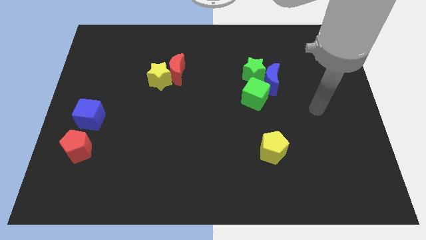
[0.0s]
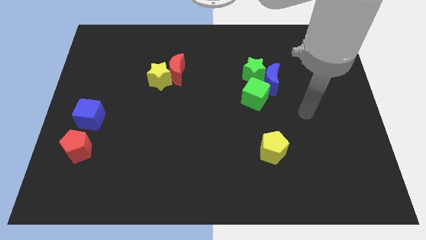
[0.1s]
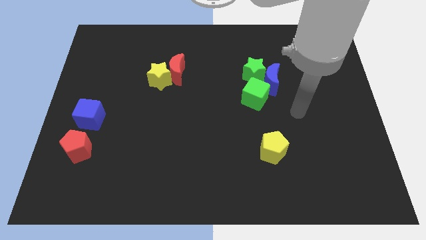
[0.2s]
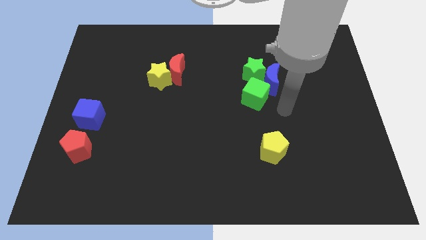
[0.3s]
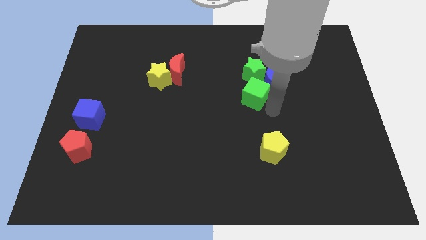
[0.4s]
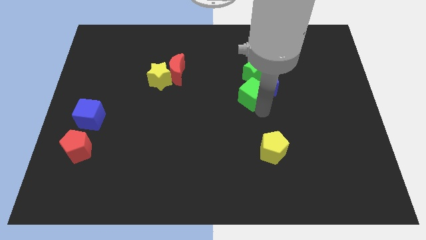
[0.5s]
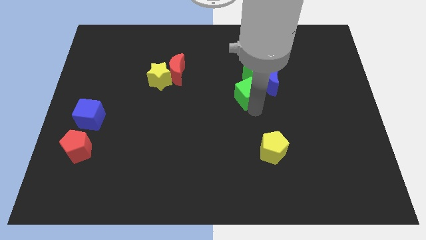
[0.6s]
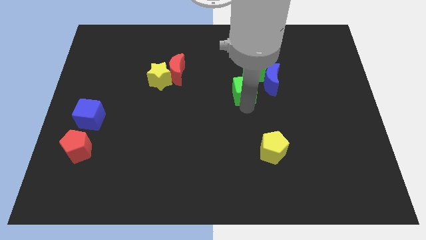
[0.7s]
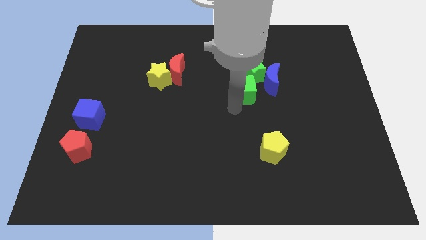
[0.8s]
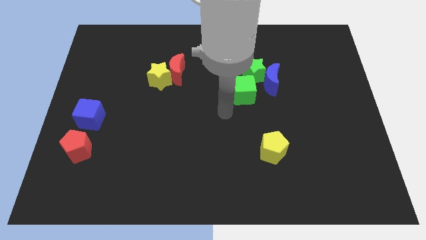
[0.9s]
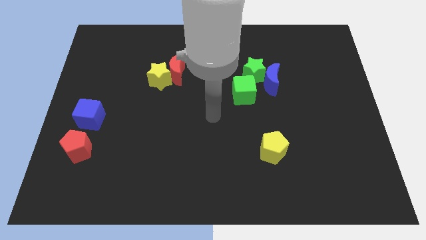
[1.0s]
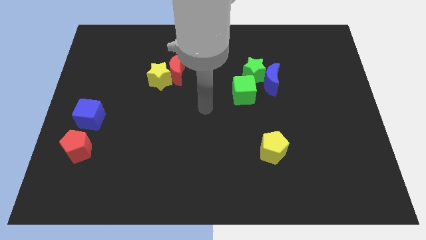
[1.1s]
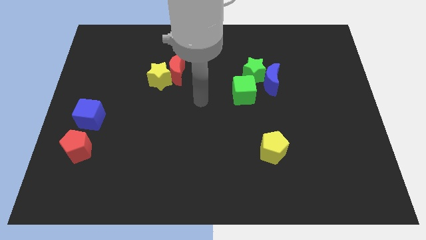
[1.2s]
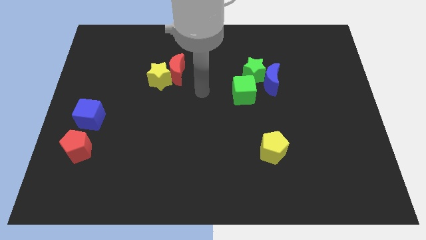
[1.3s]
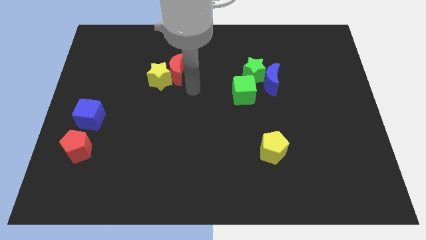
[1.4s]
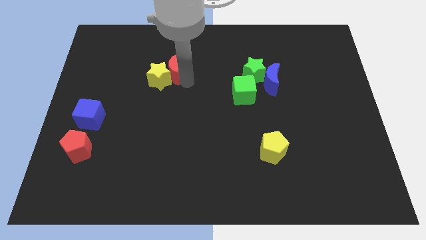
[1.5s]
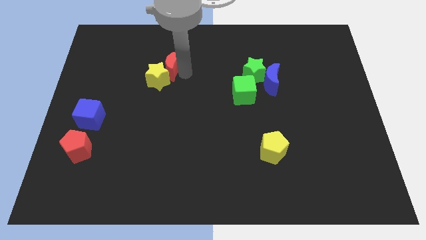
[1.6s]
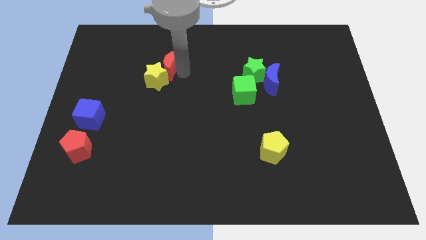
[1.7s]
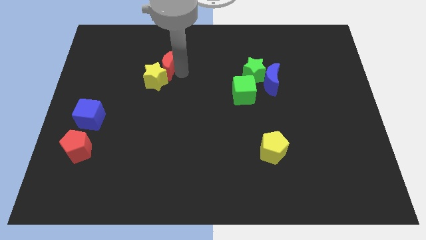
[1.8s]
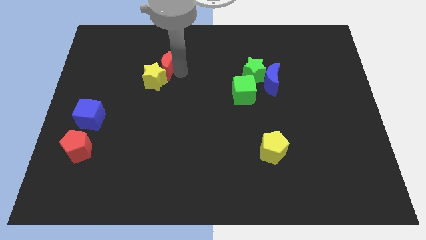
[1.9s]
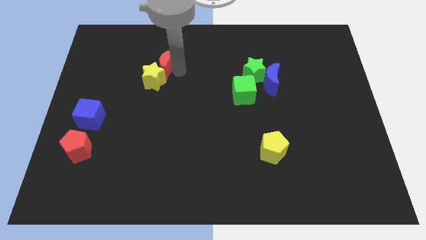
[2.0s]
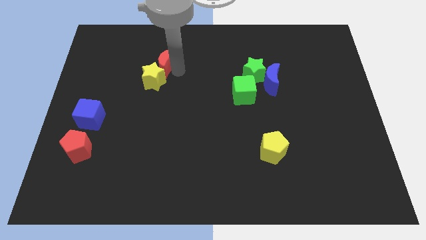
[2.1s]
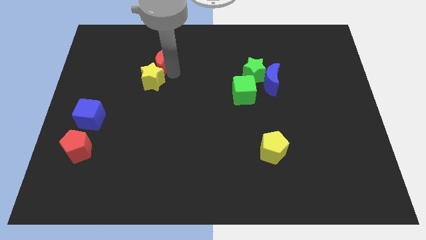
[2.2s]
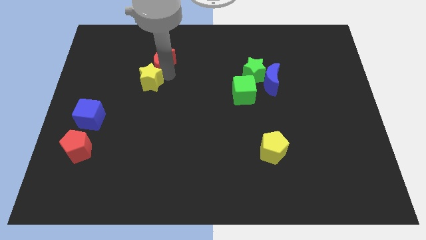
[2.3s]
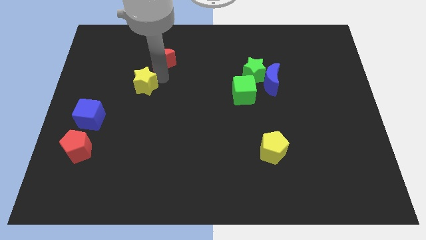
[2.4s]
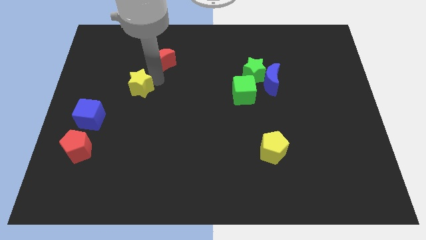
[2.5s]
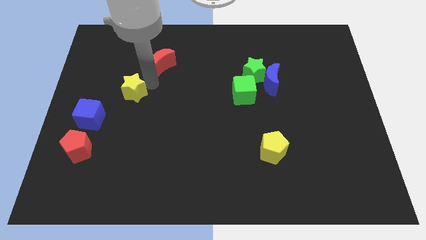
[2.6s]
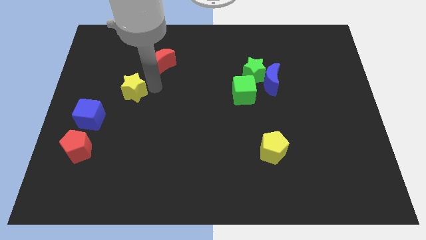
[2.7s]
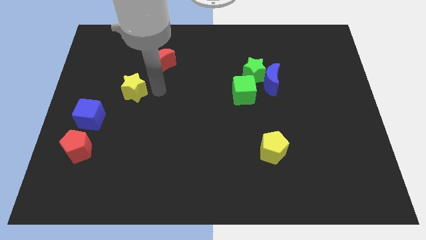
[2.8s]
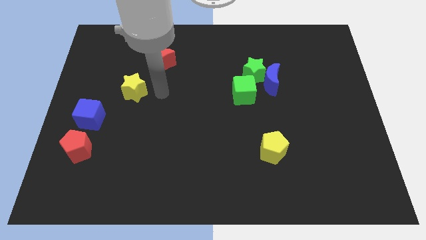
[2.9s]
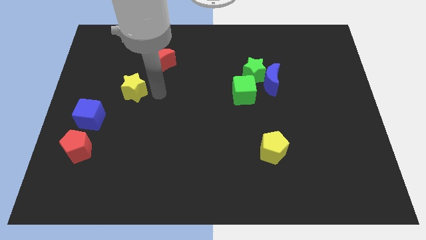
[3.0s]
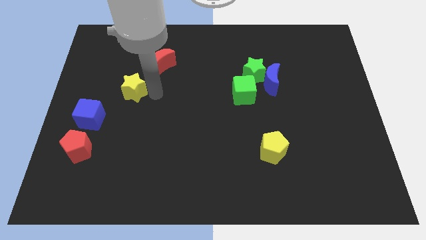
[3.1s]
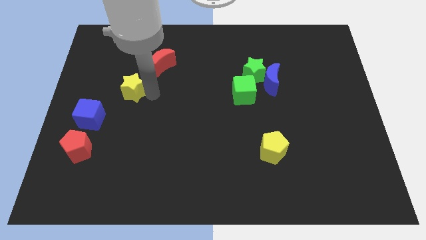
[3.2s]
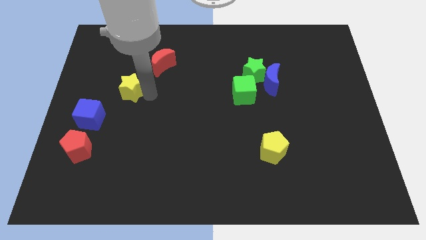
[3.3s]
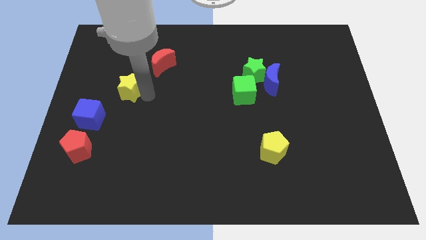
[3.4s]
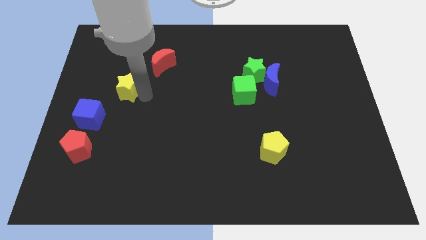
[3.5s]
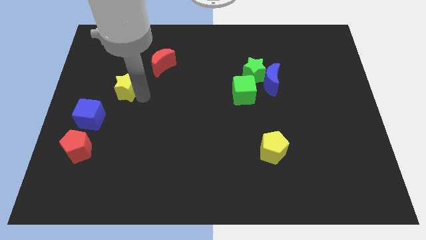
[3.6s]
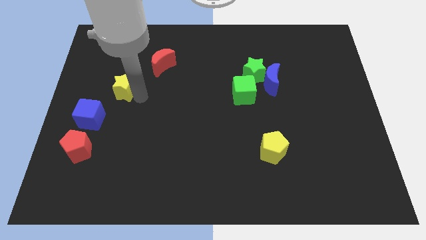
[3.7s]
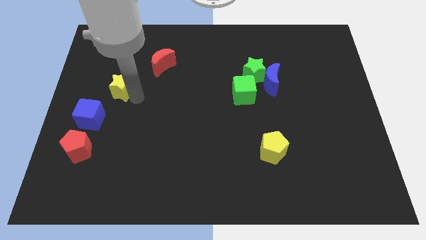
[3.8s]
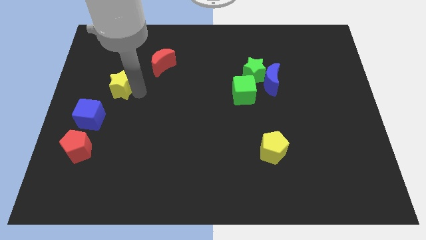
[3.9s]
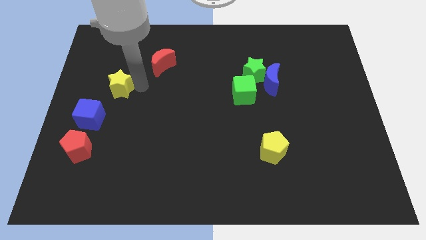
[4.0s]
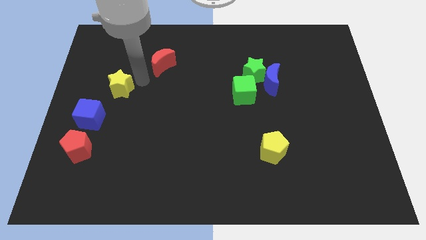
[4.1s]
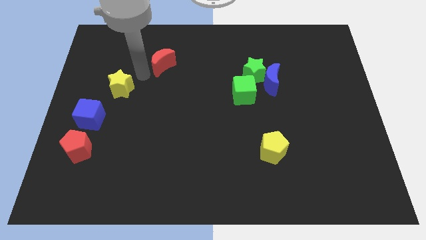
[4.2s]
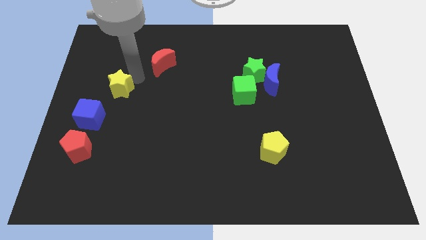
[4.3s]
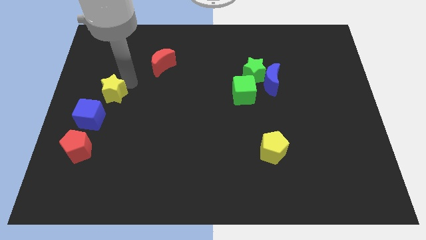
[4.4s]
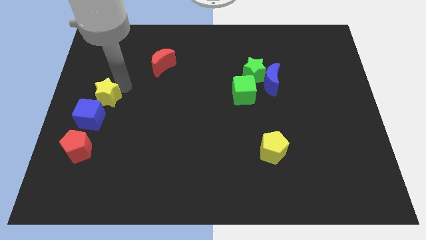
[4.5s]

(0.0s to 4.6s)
slide the yellow star above the red pentagon

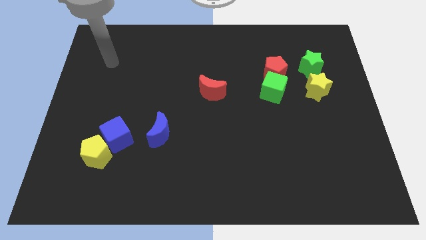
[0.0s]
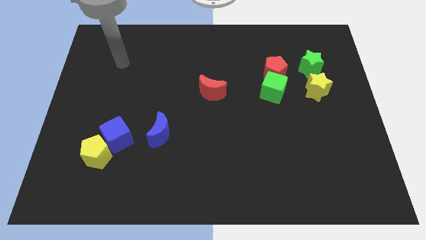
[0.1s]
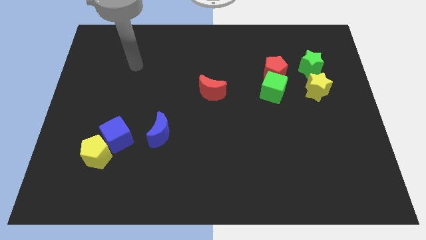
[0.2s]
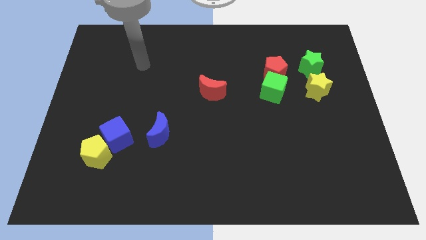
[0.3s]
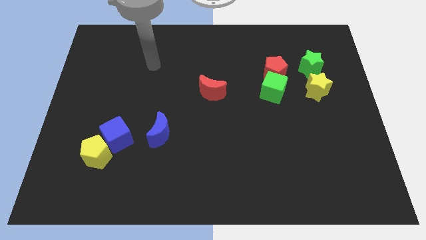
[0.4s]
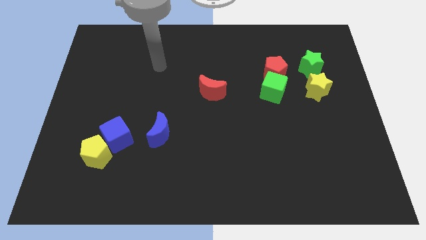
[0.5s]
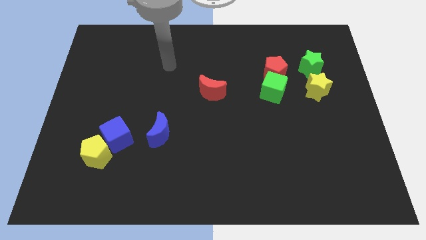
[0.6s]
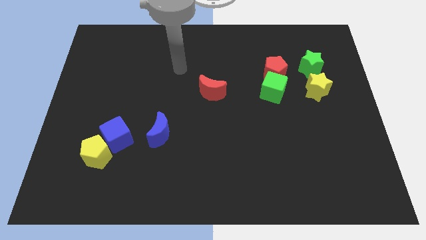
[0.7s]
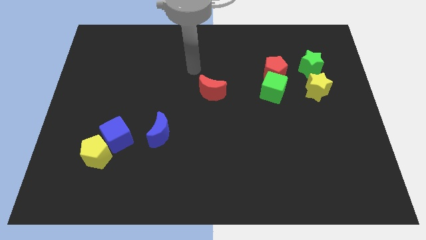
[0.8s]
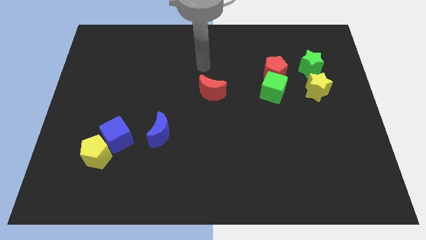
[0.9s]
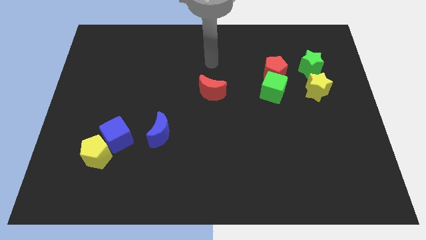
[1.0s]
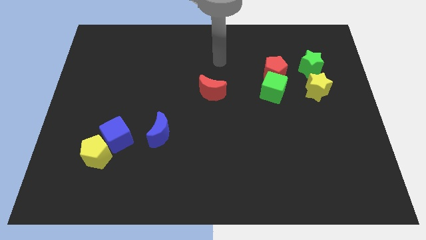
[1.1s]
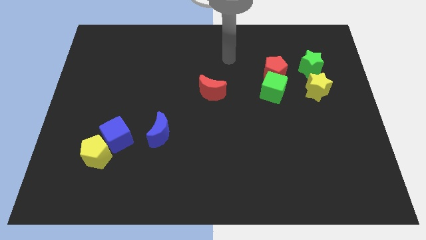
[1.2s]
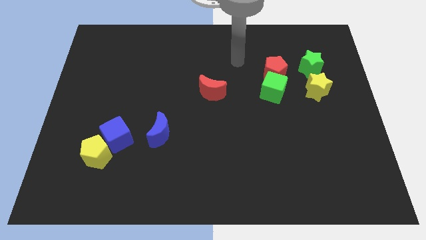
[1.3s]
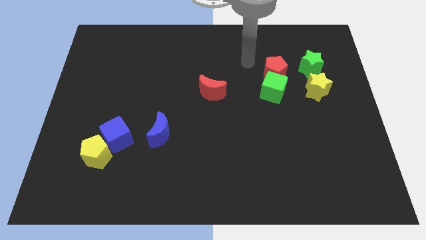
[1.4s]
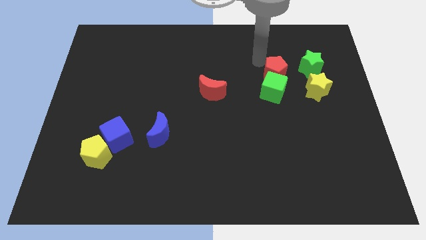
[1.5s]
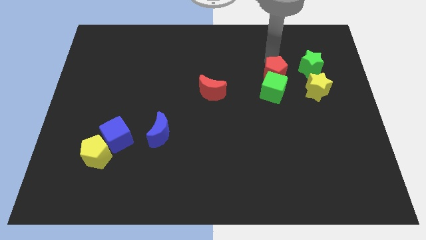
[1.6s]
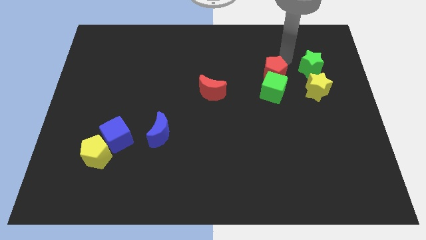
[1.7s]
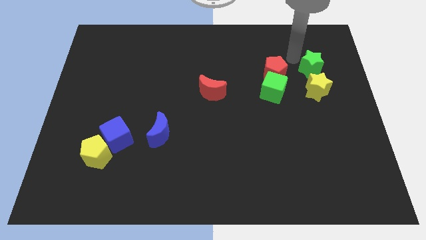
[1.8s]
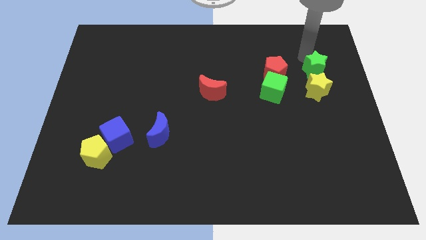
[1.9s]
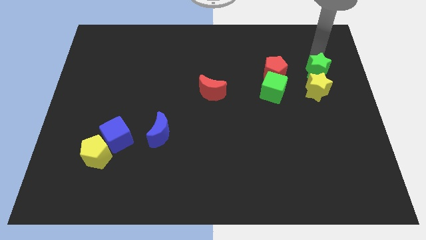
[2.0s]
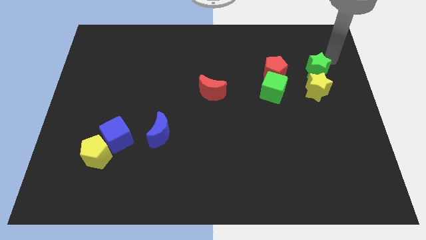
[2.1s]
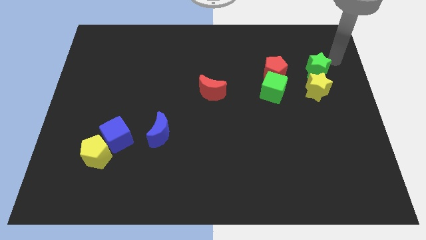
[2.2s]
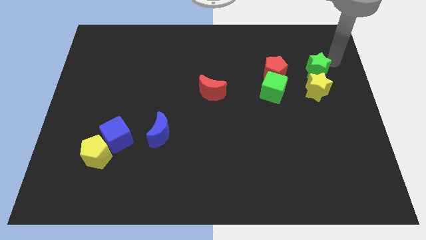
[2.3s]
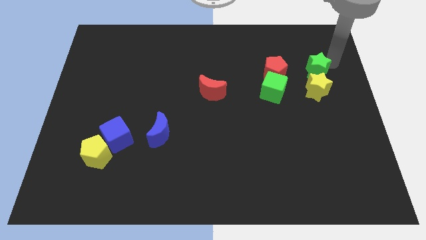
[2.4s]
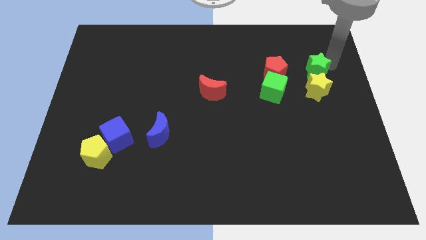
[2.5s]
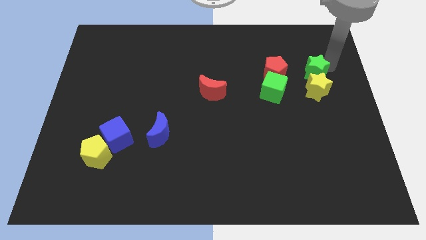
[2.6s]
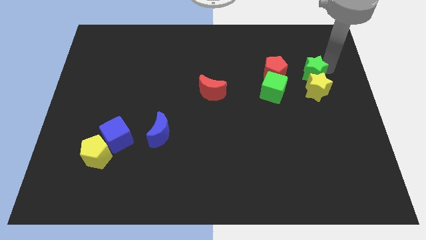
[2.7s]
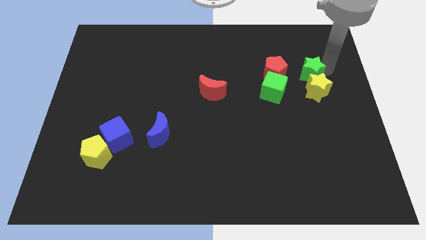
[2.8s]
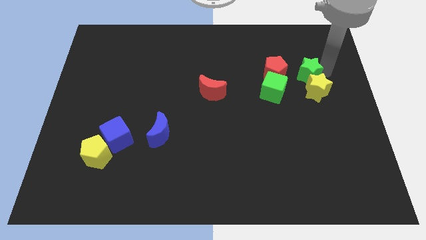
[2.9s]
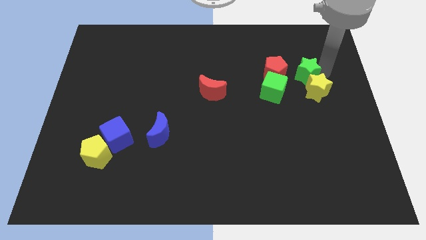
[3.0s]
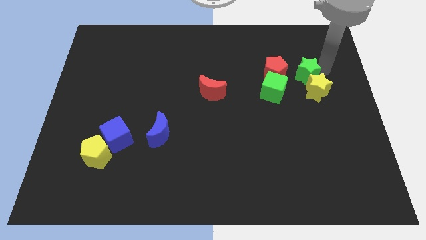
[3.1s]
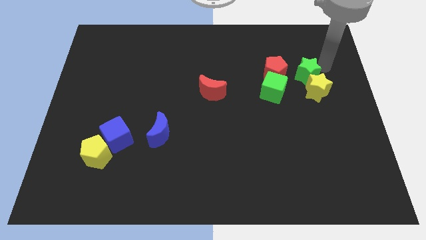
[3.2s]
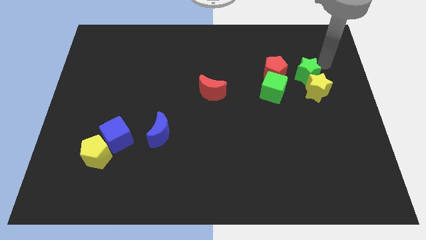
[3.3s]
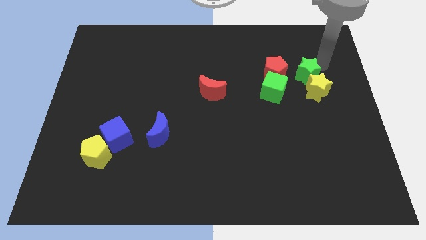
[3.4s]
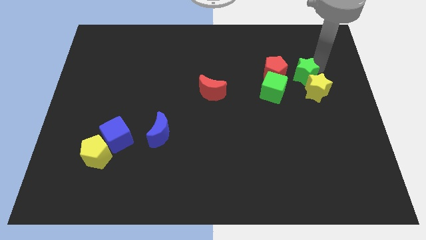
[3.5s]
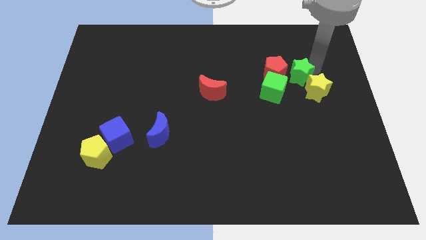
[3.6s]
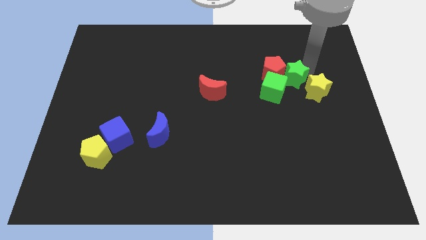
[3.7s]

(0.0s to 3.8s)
move the green star to the left of the yellow star
